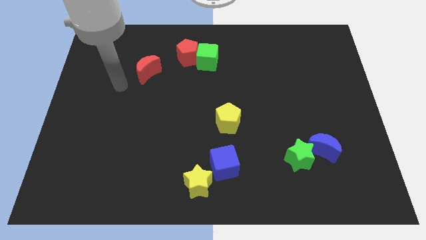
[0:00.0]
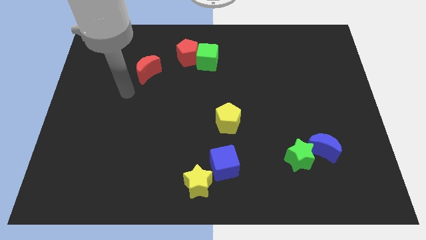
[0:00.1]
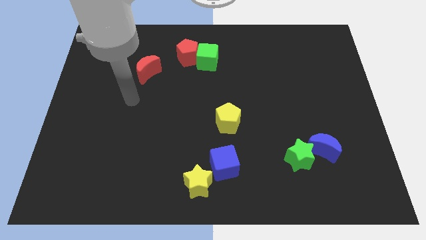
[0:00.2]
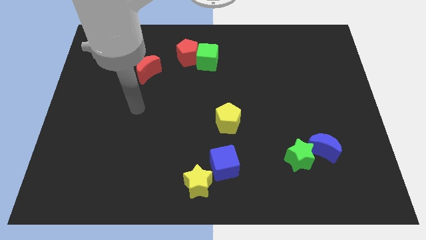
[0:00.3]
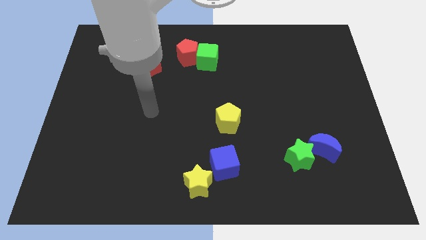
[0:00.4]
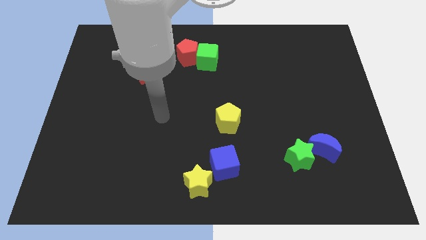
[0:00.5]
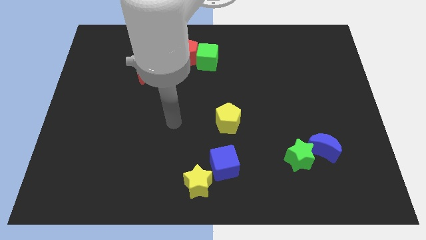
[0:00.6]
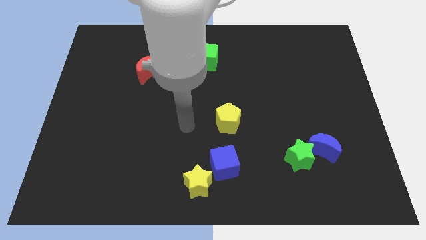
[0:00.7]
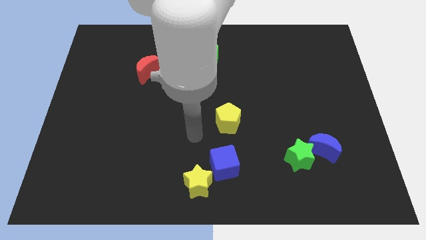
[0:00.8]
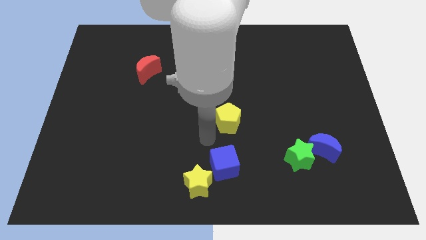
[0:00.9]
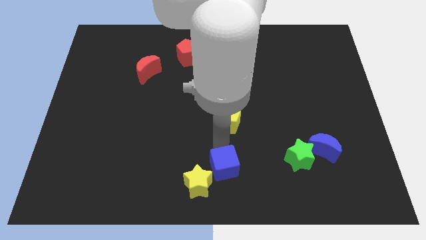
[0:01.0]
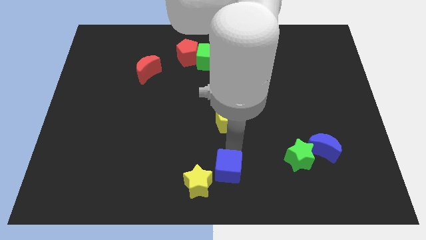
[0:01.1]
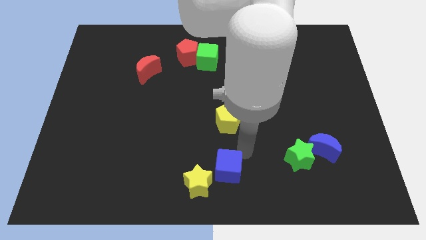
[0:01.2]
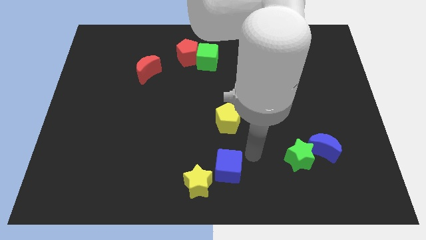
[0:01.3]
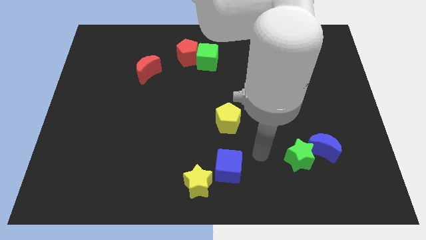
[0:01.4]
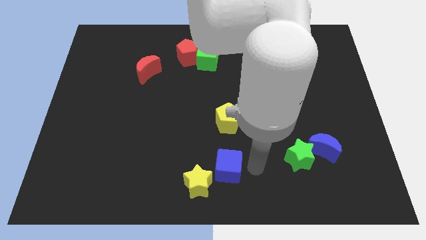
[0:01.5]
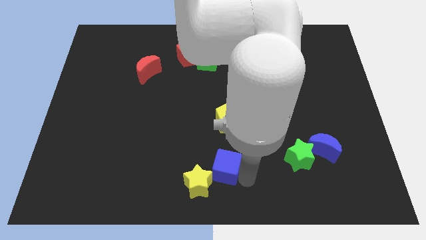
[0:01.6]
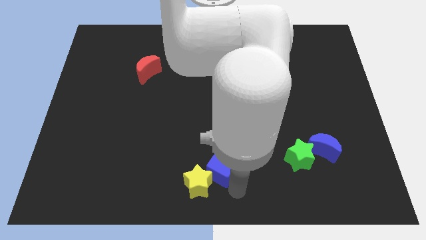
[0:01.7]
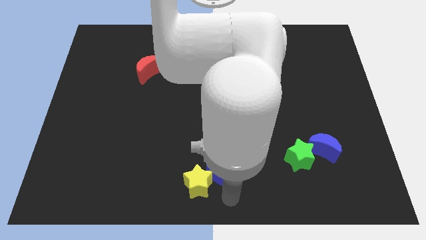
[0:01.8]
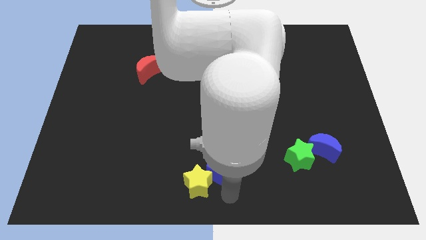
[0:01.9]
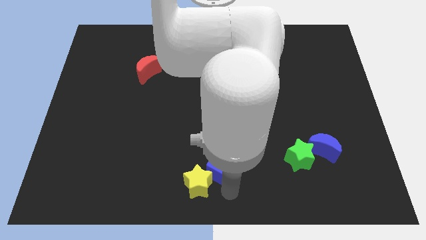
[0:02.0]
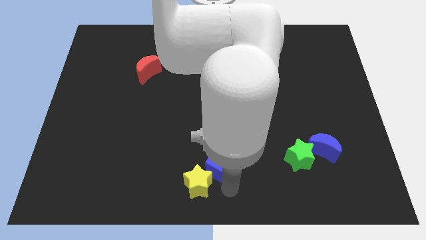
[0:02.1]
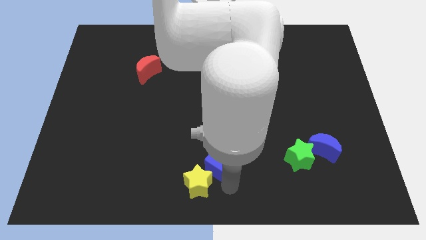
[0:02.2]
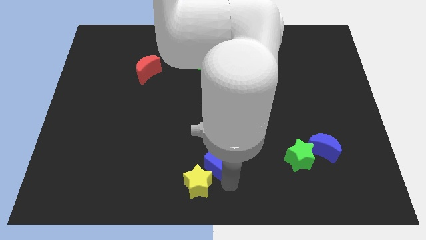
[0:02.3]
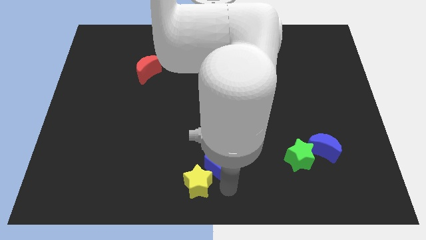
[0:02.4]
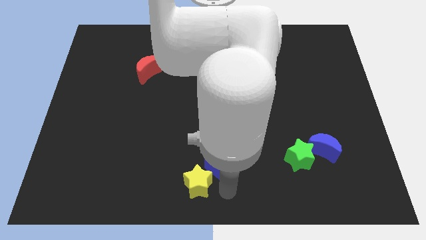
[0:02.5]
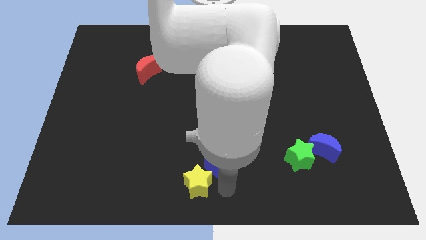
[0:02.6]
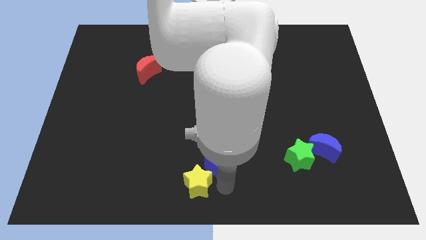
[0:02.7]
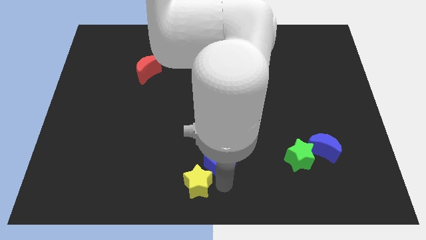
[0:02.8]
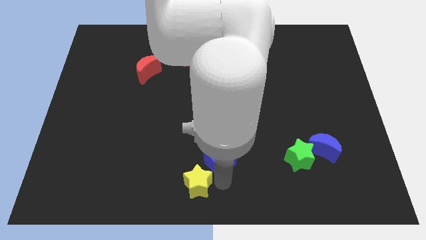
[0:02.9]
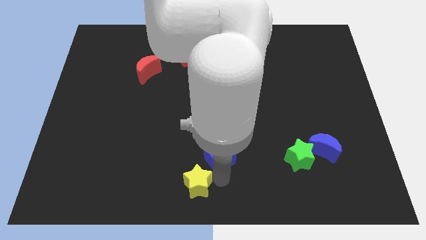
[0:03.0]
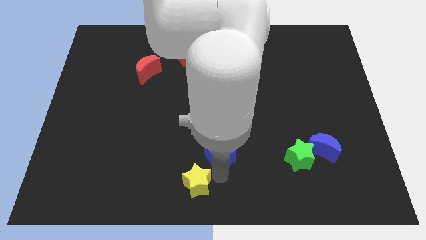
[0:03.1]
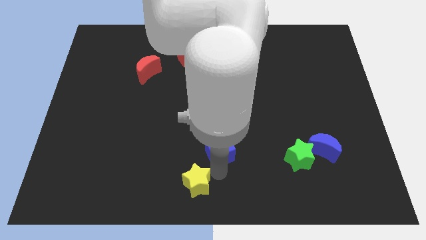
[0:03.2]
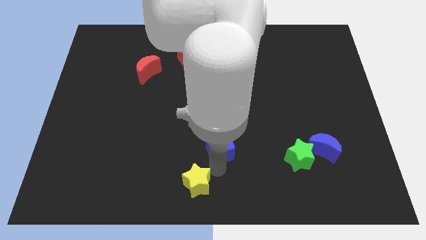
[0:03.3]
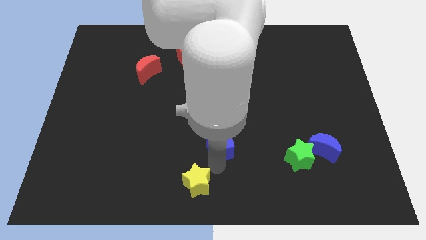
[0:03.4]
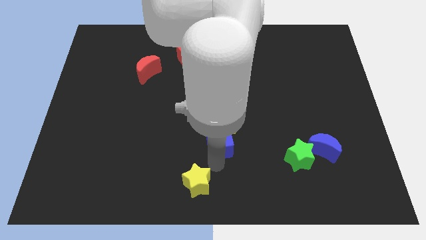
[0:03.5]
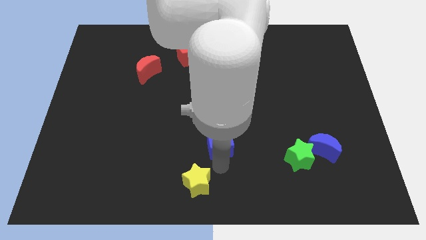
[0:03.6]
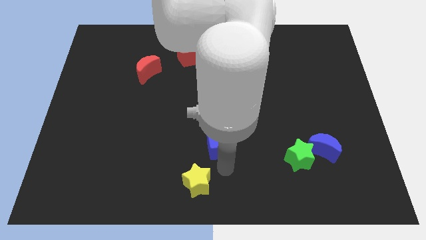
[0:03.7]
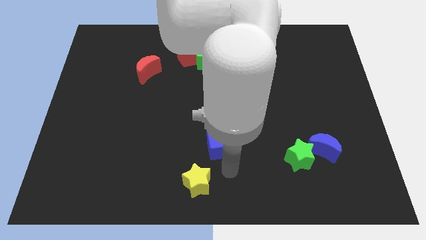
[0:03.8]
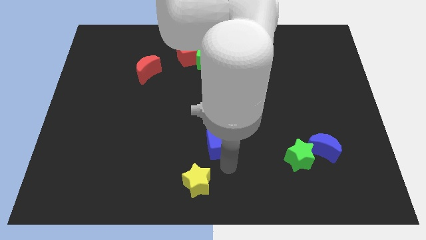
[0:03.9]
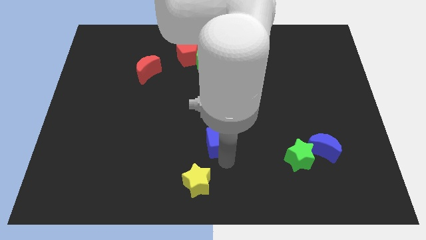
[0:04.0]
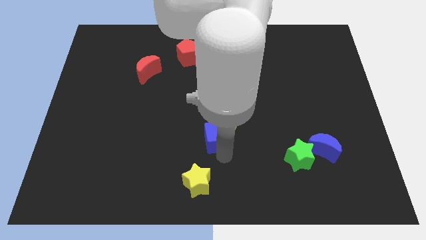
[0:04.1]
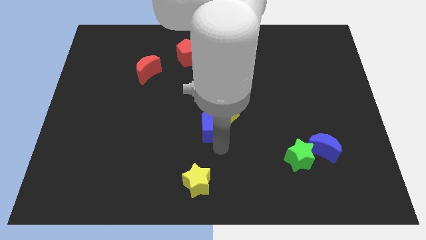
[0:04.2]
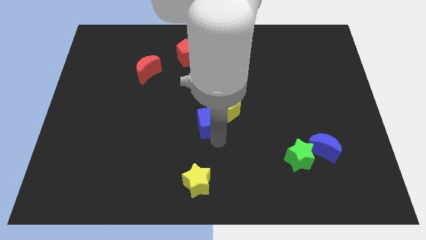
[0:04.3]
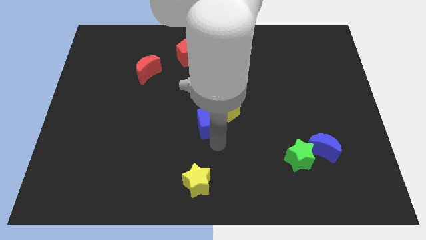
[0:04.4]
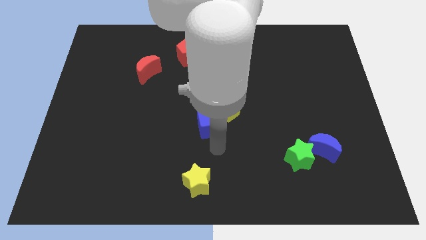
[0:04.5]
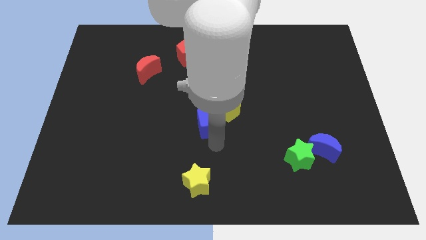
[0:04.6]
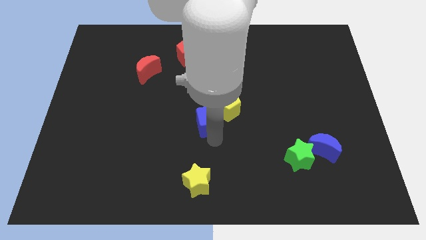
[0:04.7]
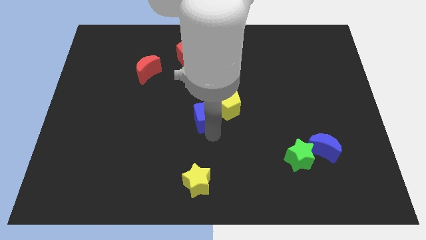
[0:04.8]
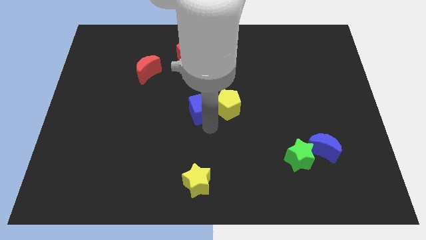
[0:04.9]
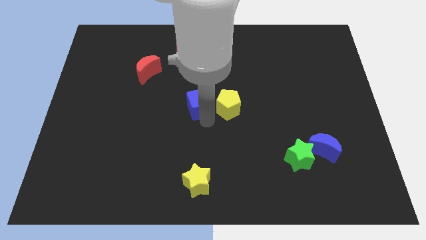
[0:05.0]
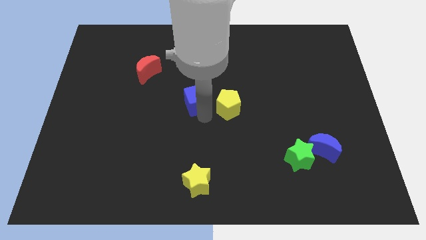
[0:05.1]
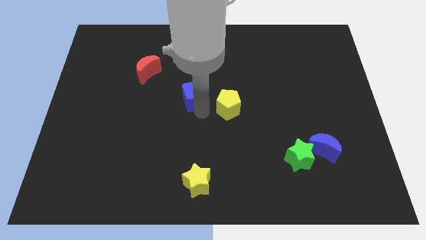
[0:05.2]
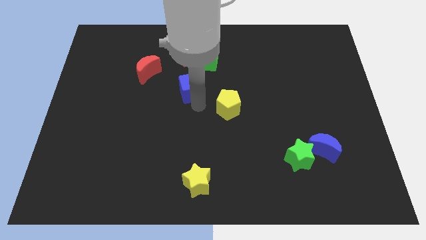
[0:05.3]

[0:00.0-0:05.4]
move the blue cube diagonally down and to the left of the green cube

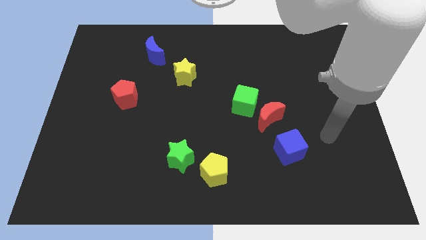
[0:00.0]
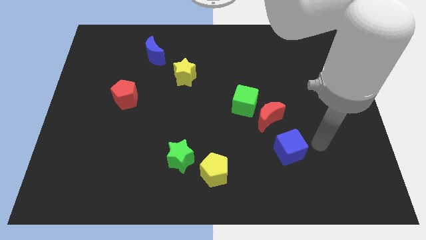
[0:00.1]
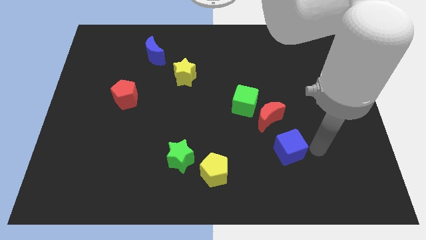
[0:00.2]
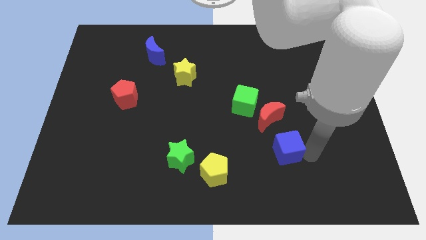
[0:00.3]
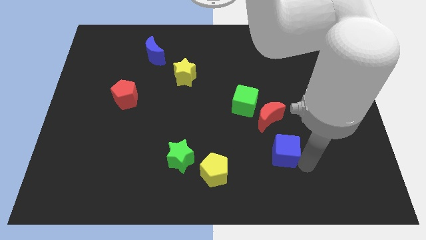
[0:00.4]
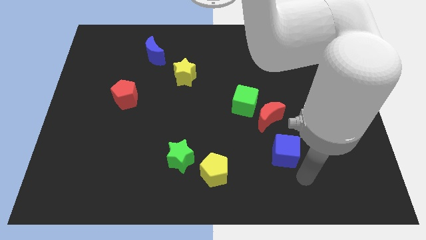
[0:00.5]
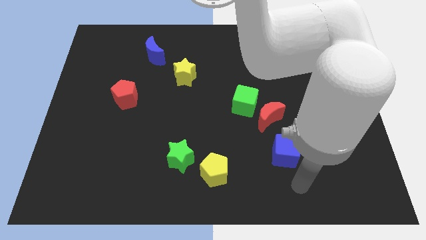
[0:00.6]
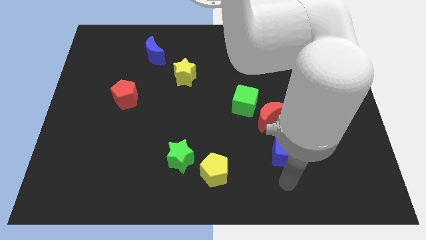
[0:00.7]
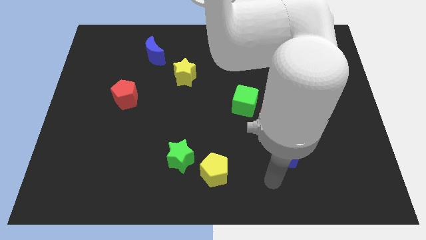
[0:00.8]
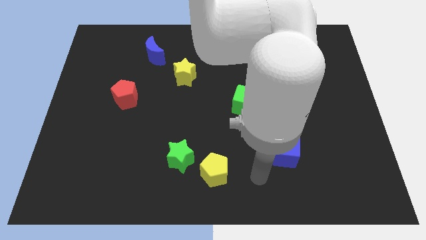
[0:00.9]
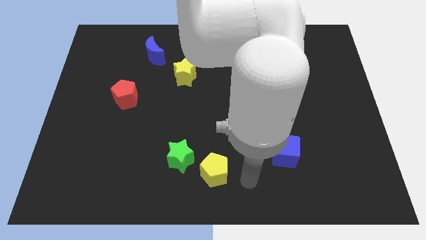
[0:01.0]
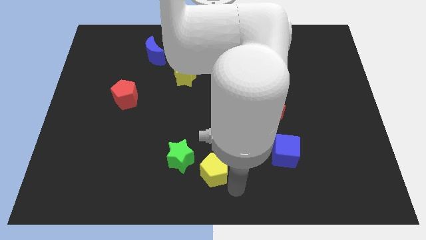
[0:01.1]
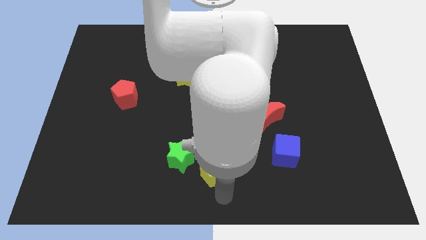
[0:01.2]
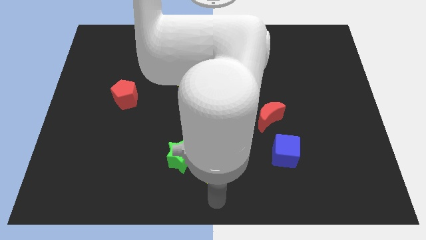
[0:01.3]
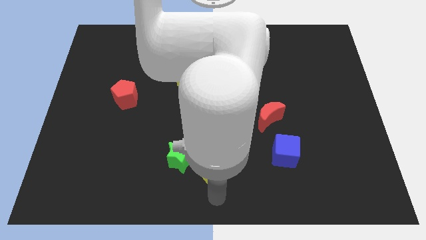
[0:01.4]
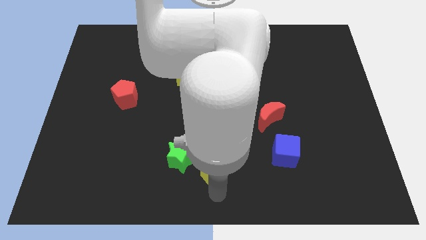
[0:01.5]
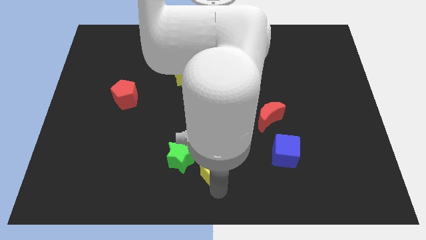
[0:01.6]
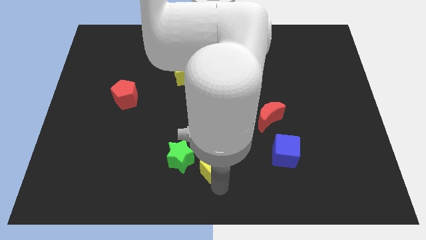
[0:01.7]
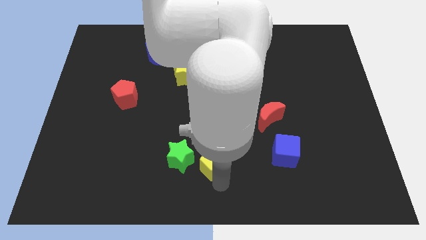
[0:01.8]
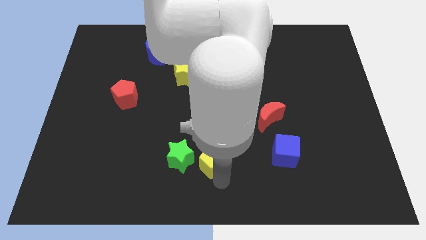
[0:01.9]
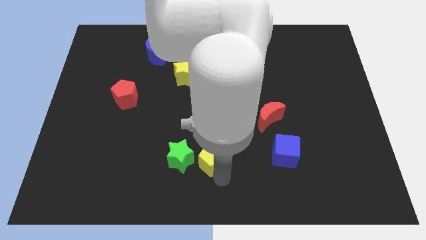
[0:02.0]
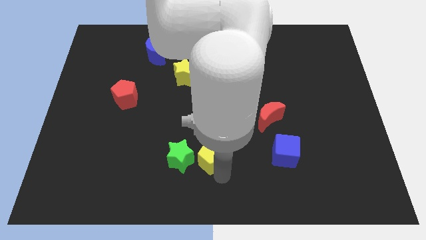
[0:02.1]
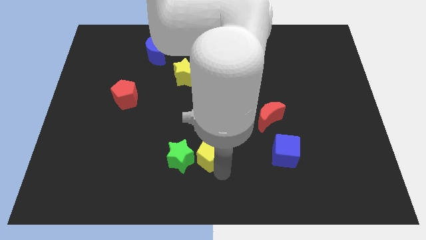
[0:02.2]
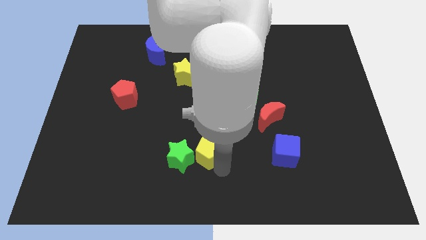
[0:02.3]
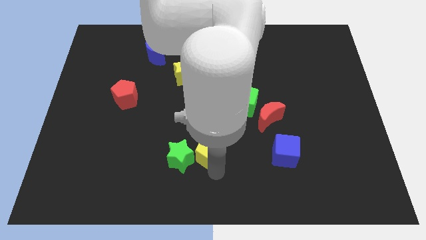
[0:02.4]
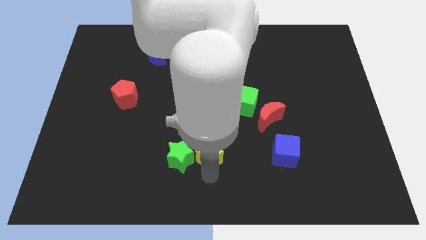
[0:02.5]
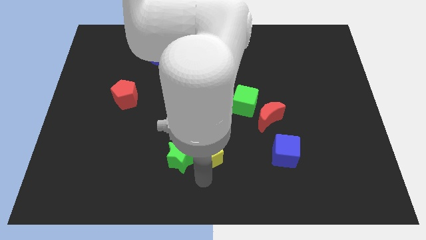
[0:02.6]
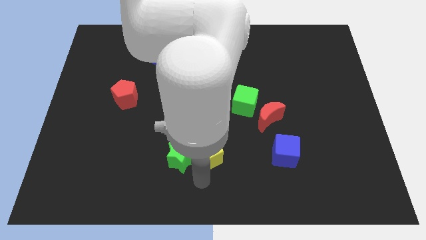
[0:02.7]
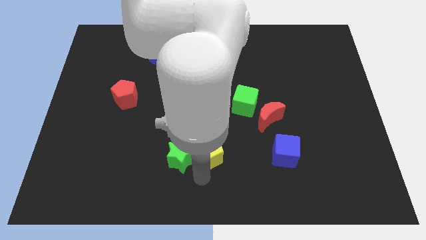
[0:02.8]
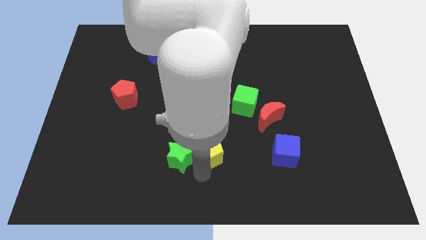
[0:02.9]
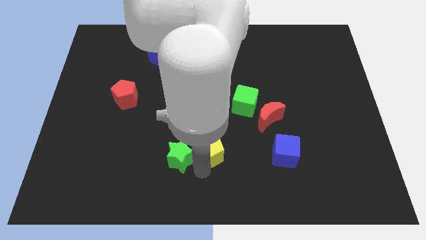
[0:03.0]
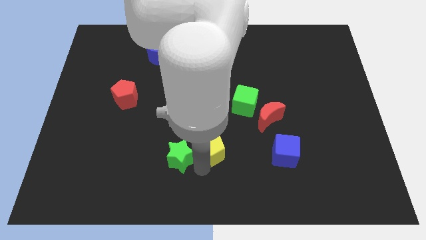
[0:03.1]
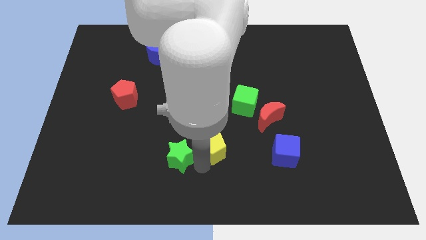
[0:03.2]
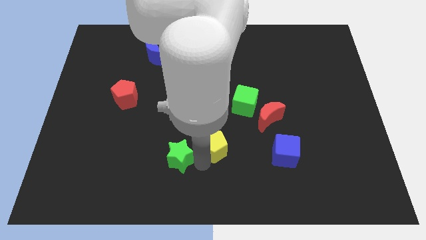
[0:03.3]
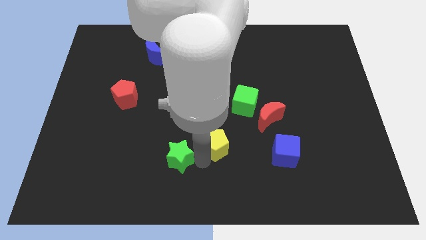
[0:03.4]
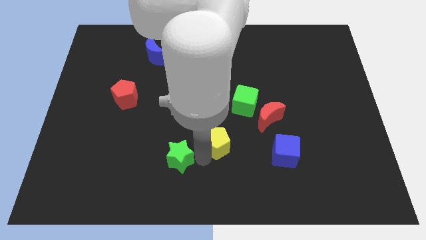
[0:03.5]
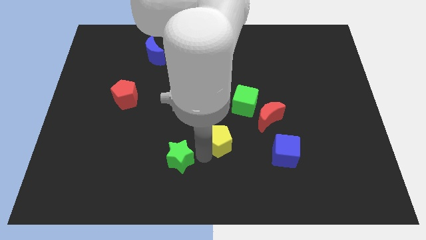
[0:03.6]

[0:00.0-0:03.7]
move the yellow pentagon diagonally down and to the left of the green cube
